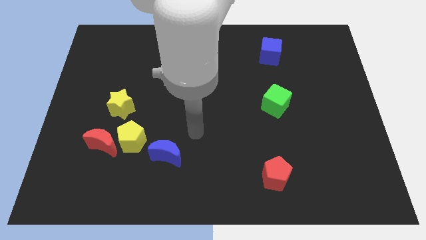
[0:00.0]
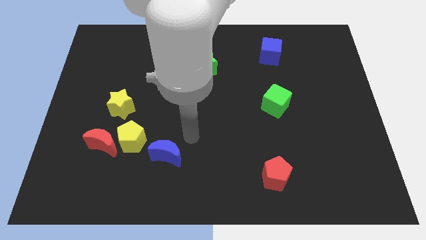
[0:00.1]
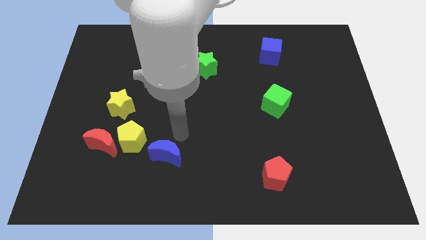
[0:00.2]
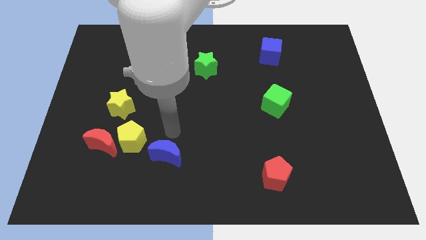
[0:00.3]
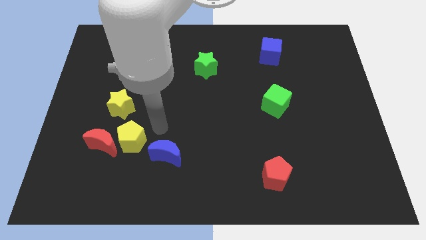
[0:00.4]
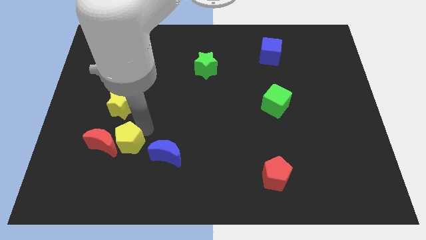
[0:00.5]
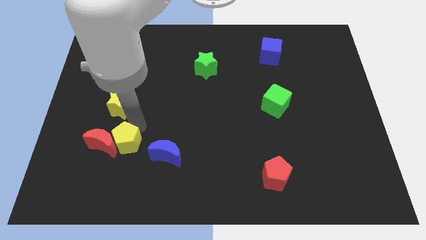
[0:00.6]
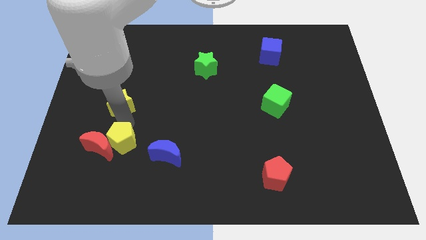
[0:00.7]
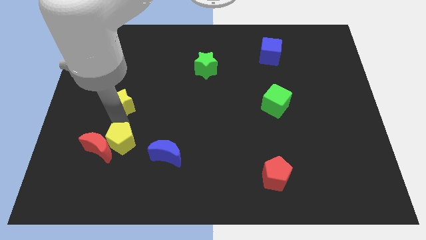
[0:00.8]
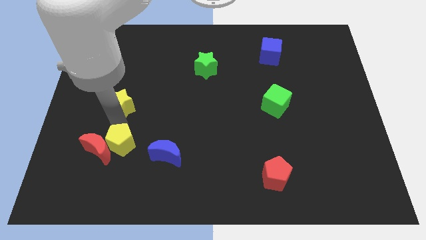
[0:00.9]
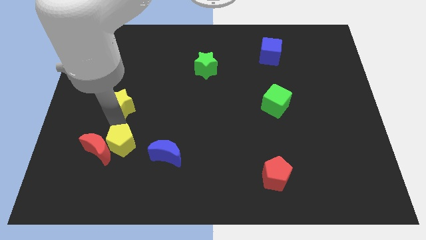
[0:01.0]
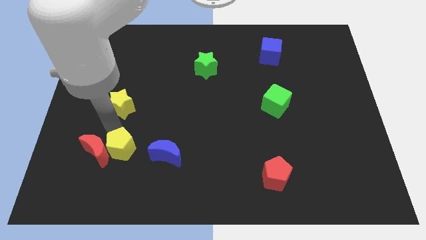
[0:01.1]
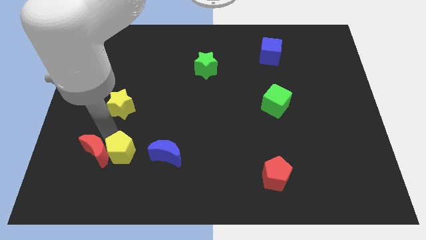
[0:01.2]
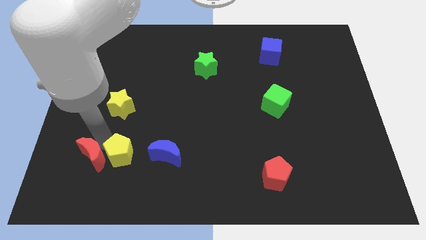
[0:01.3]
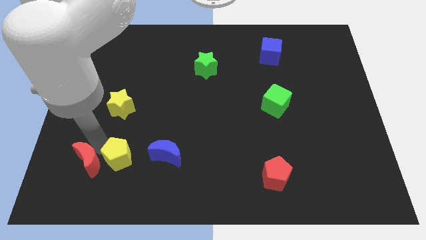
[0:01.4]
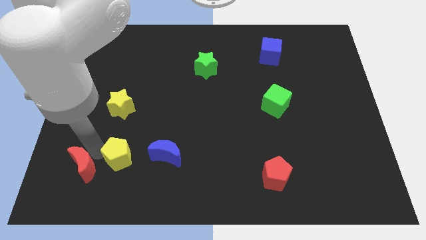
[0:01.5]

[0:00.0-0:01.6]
pull the red moon apart from the yellow pentagon and yellow star

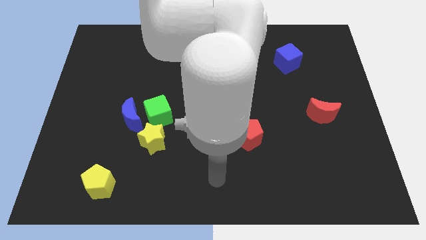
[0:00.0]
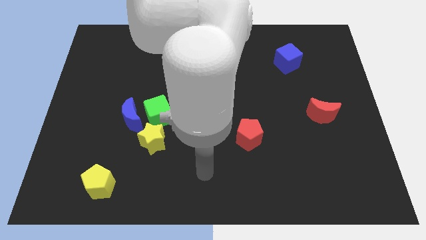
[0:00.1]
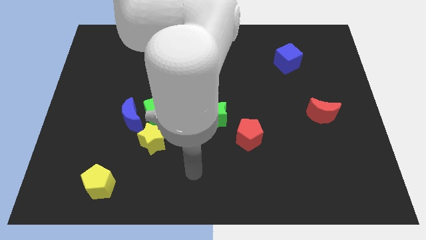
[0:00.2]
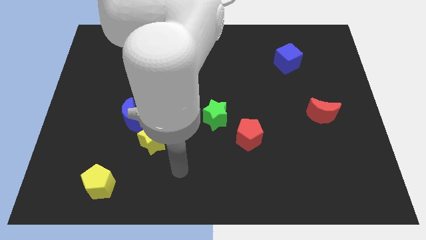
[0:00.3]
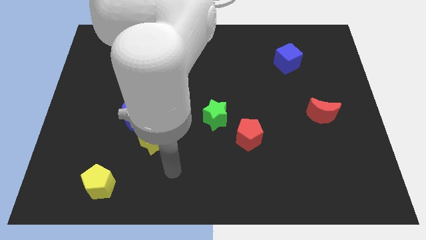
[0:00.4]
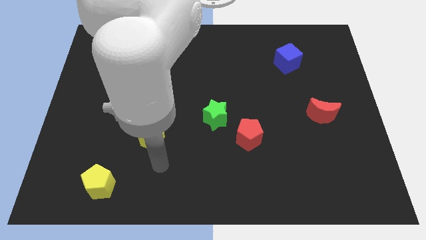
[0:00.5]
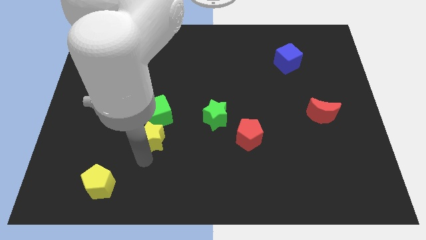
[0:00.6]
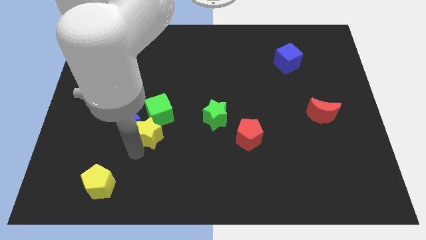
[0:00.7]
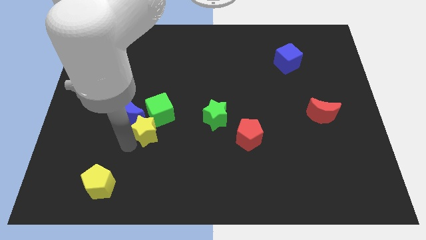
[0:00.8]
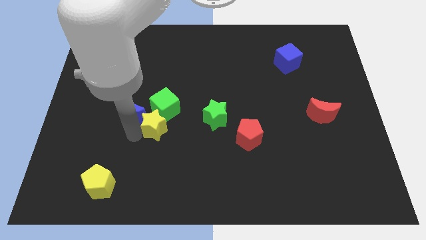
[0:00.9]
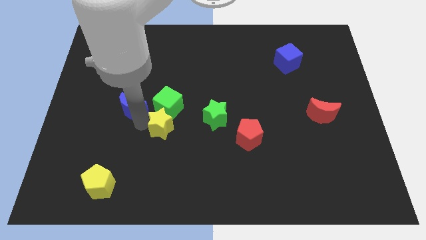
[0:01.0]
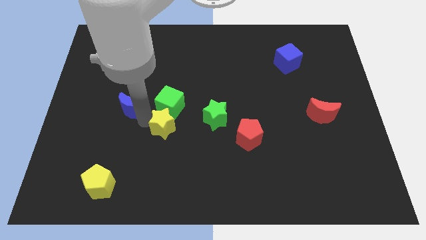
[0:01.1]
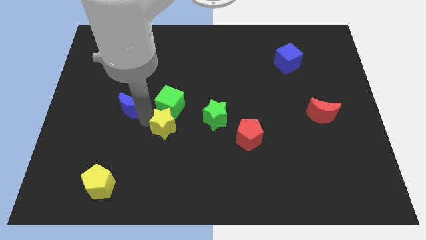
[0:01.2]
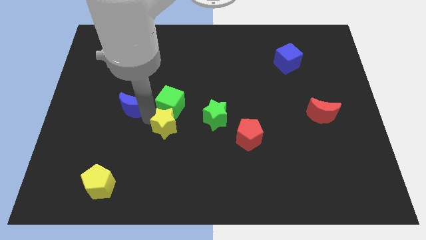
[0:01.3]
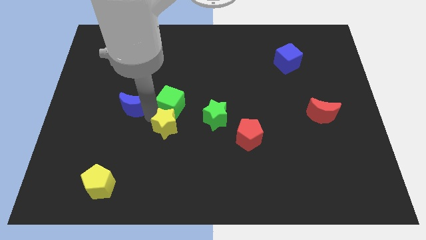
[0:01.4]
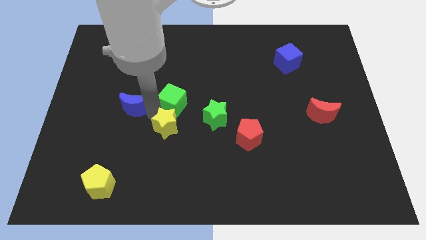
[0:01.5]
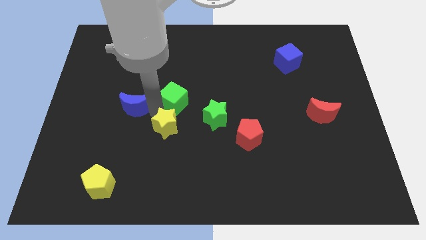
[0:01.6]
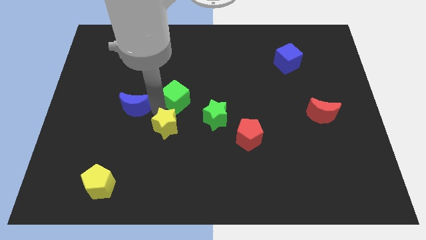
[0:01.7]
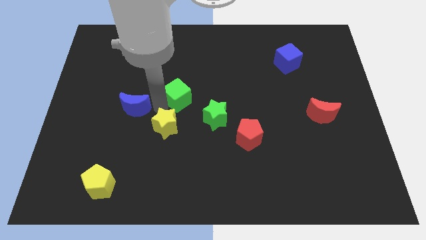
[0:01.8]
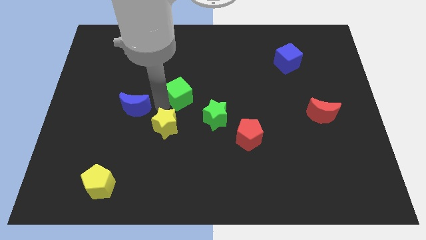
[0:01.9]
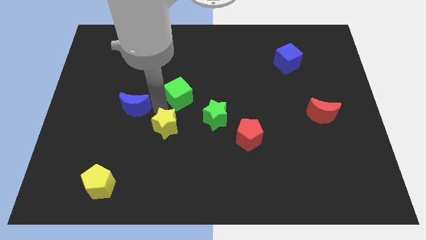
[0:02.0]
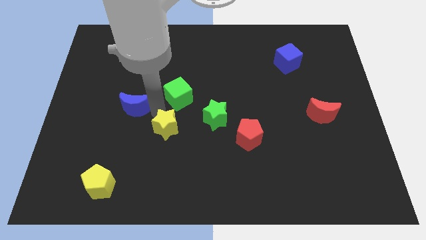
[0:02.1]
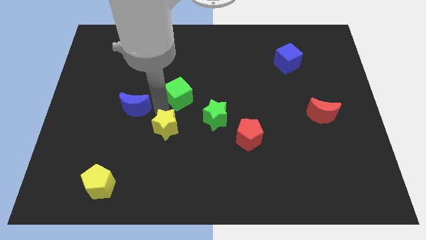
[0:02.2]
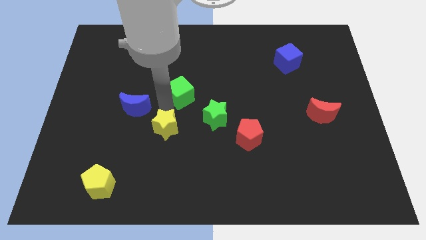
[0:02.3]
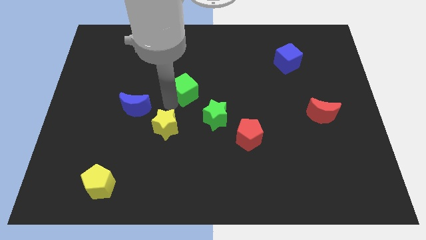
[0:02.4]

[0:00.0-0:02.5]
pull the green cube apart from the blue moon and yellow star

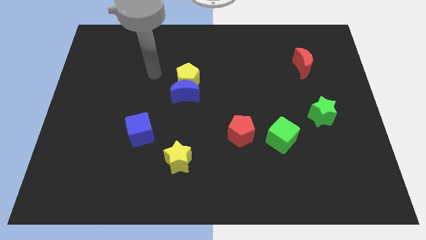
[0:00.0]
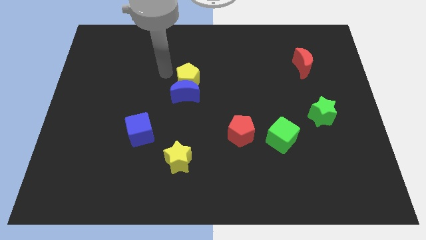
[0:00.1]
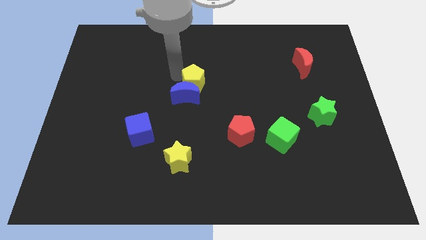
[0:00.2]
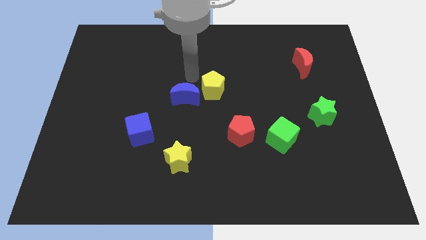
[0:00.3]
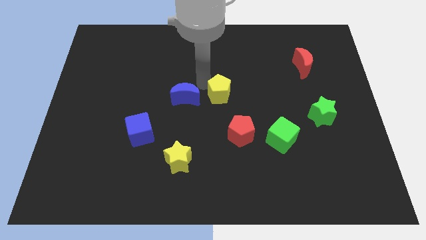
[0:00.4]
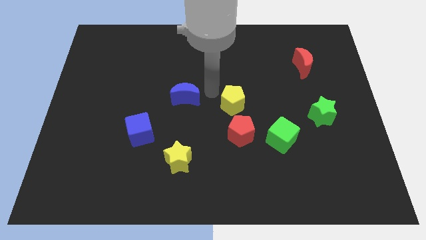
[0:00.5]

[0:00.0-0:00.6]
pull the blue moon apart from the yellow pentagon

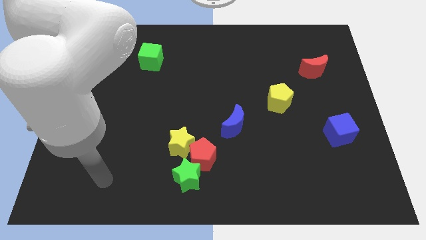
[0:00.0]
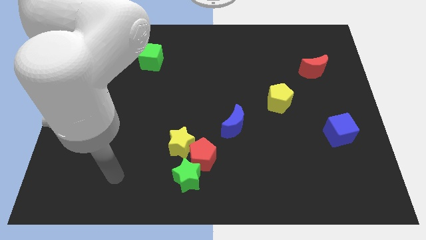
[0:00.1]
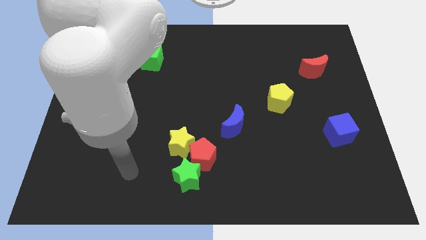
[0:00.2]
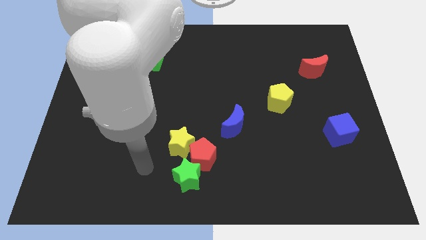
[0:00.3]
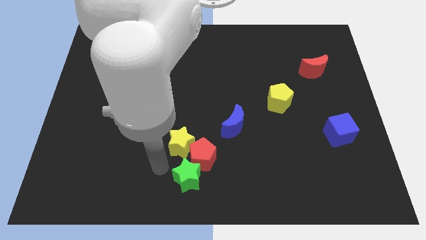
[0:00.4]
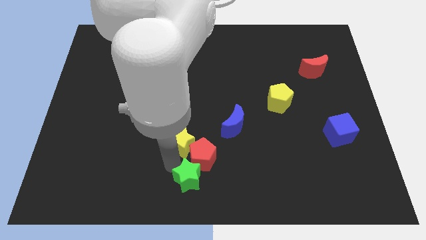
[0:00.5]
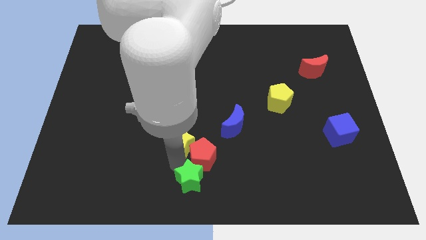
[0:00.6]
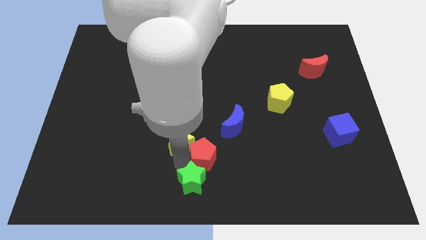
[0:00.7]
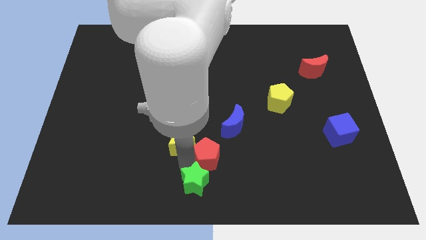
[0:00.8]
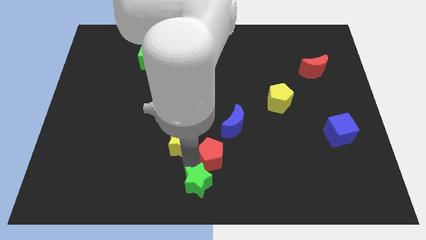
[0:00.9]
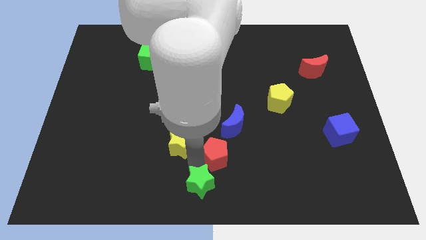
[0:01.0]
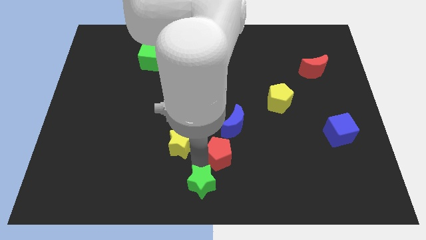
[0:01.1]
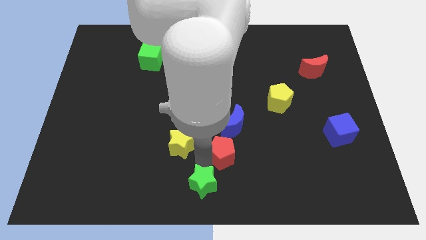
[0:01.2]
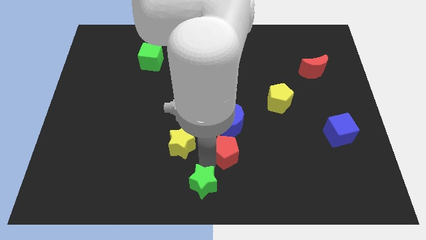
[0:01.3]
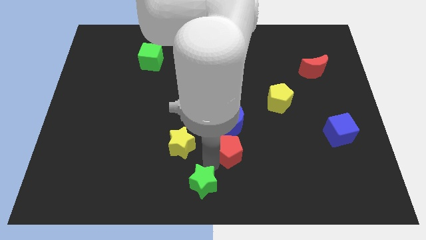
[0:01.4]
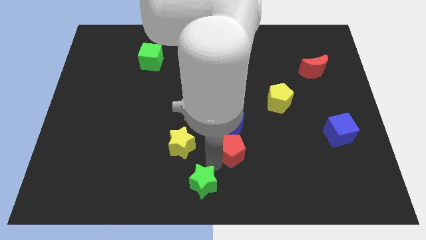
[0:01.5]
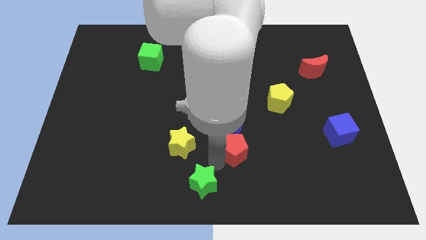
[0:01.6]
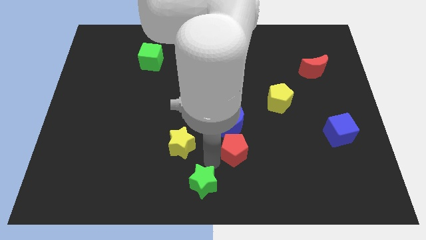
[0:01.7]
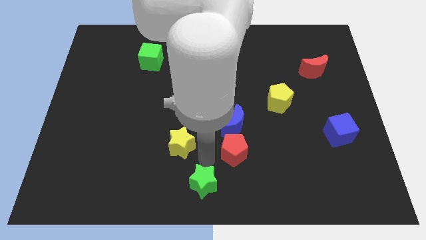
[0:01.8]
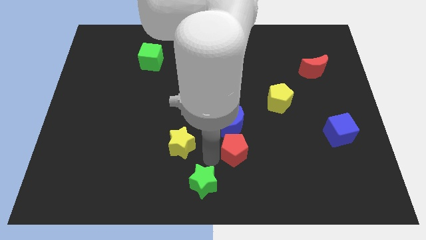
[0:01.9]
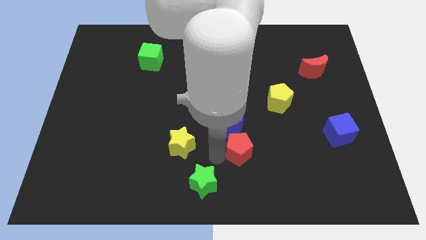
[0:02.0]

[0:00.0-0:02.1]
move the red pentagon away from the yellow star and green star

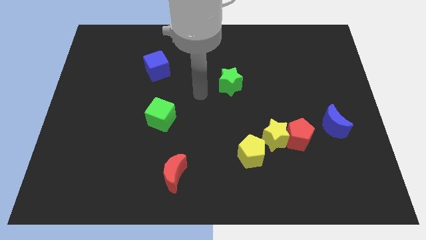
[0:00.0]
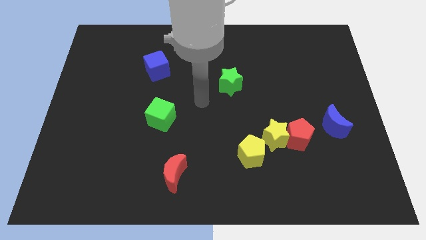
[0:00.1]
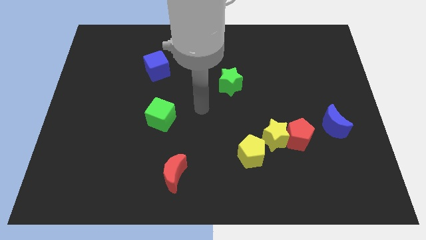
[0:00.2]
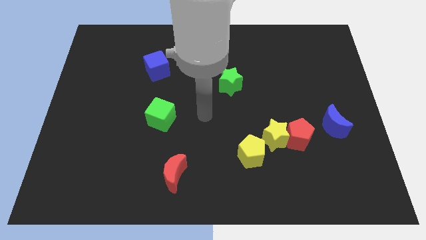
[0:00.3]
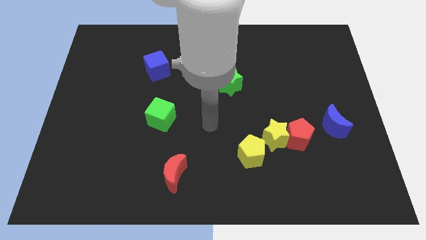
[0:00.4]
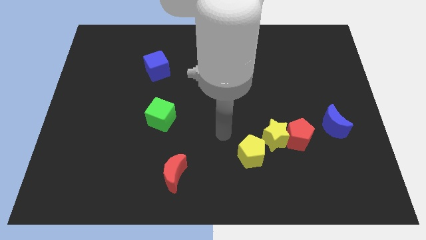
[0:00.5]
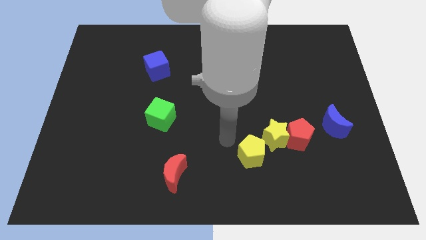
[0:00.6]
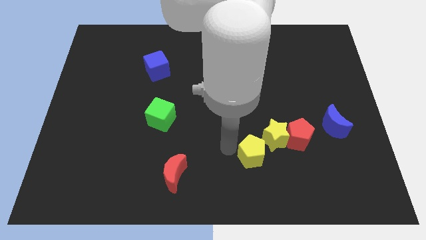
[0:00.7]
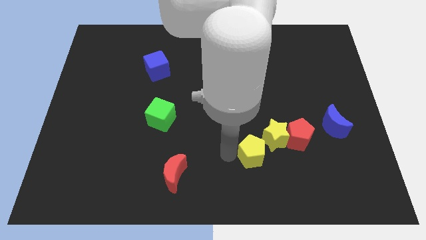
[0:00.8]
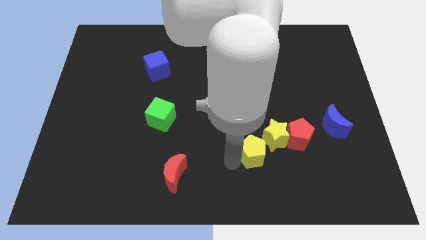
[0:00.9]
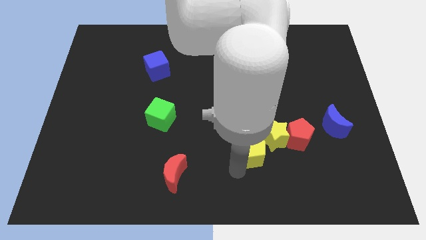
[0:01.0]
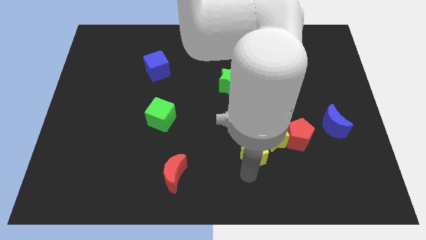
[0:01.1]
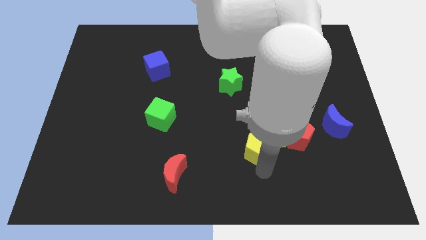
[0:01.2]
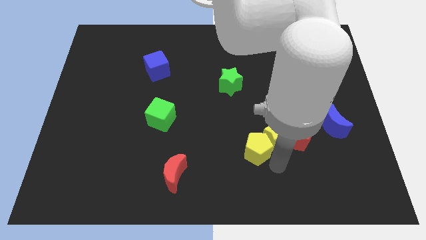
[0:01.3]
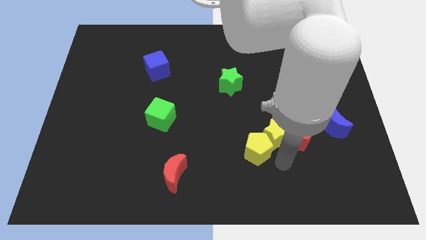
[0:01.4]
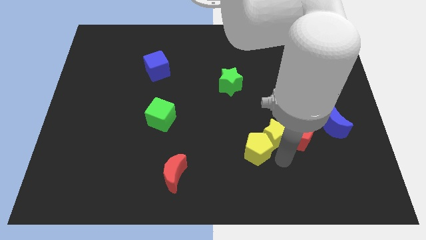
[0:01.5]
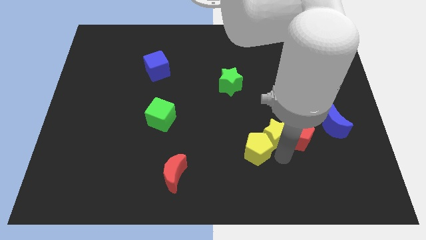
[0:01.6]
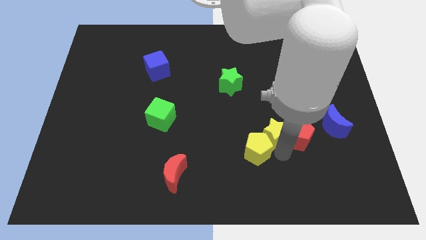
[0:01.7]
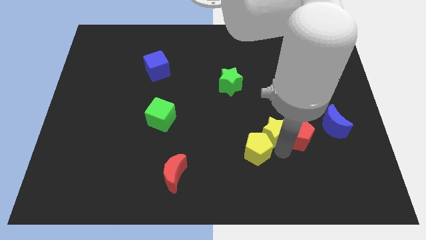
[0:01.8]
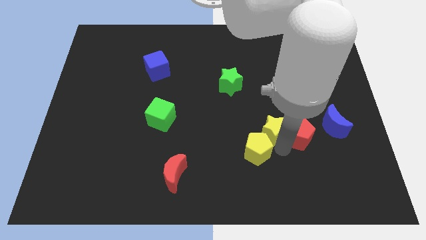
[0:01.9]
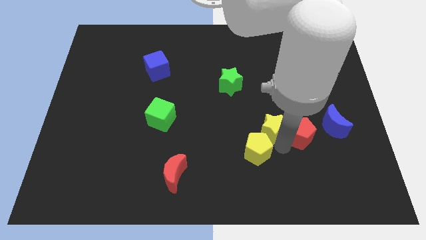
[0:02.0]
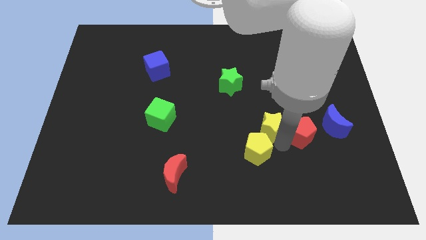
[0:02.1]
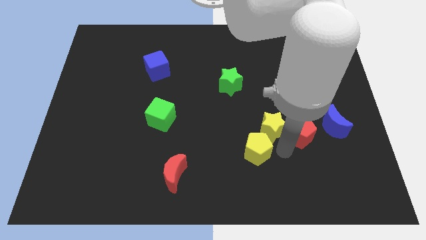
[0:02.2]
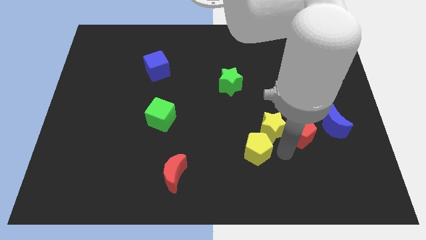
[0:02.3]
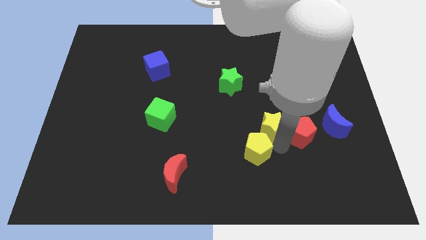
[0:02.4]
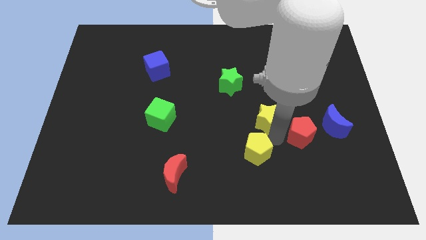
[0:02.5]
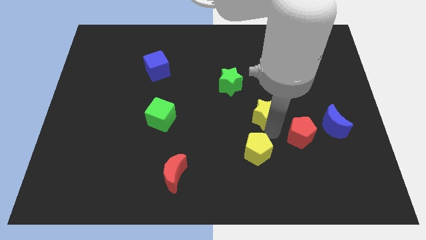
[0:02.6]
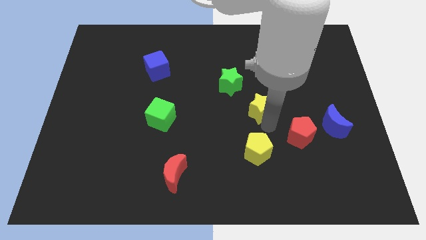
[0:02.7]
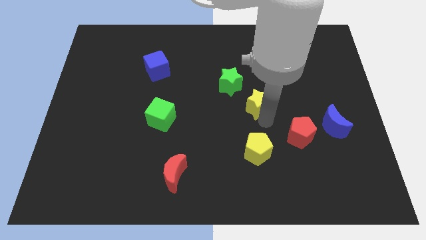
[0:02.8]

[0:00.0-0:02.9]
pull the yellow star apart from the red pentagon and yellow pentagon
